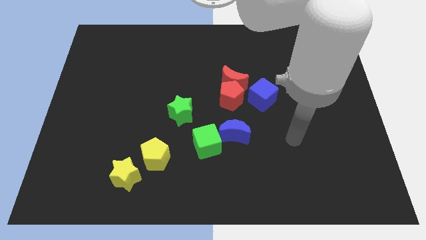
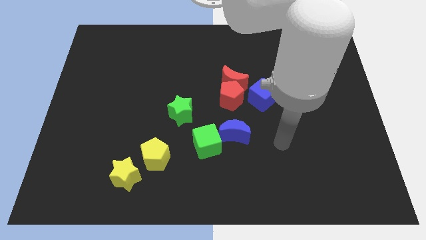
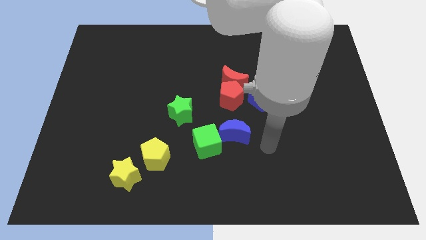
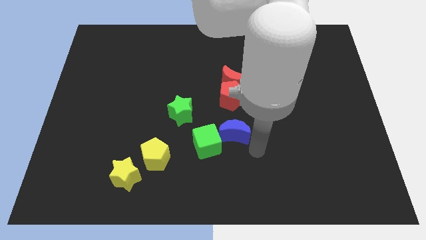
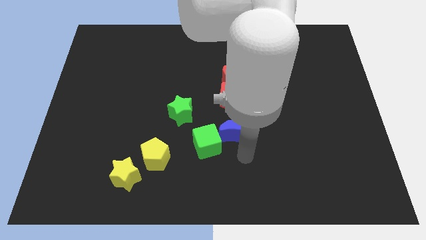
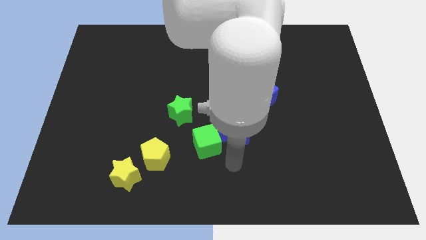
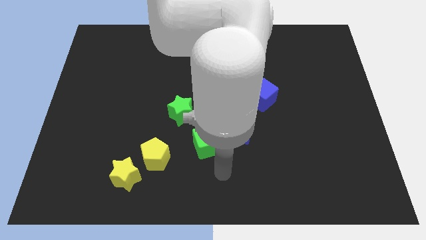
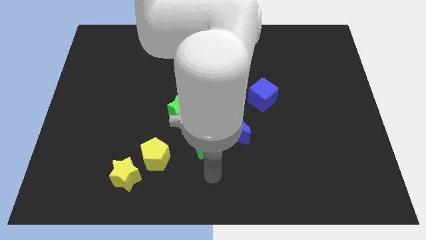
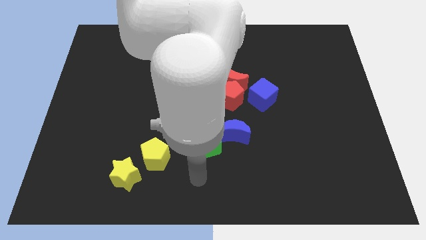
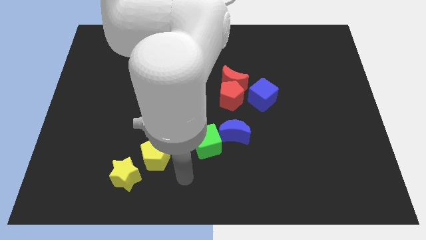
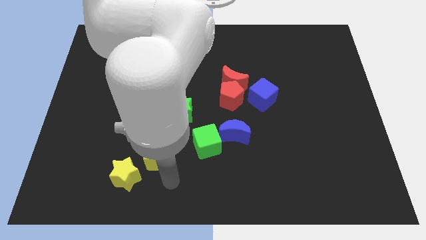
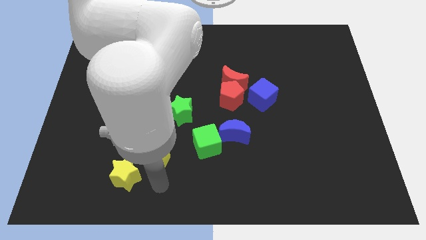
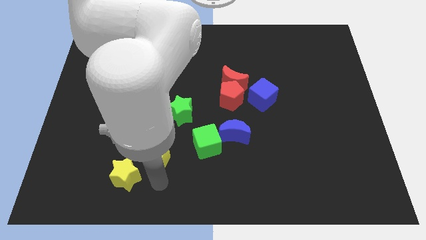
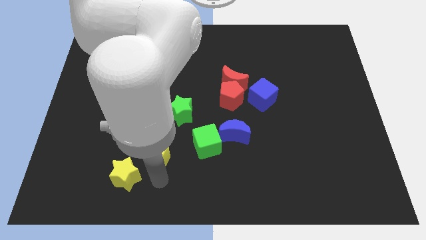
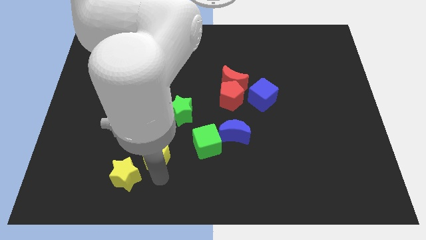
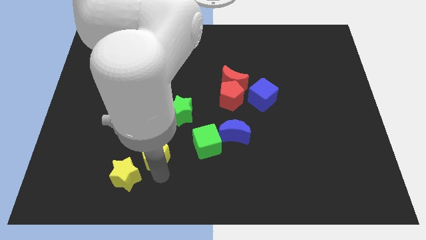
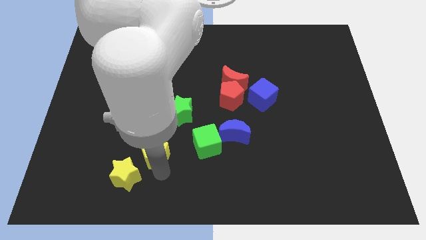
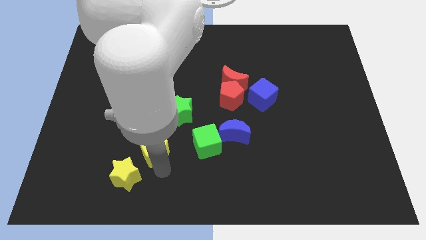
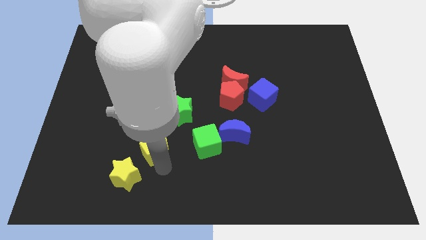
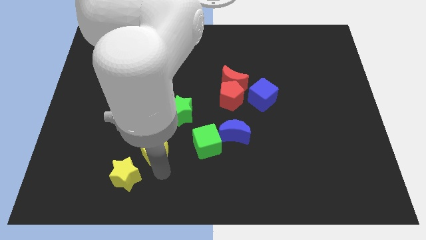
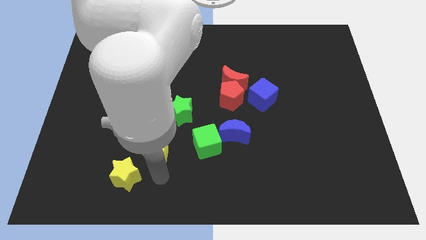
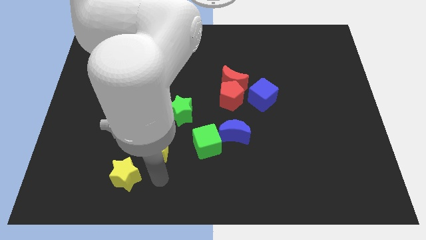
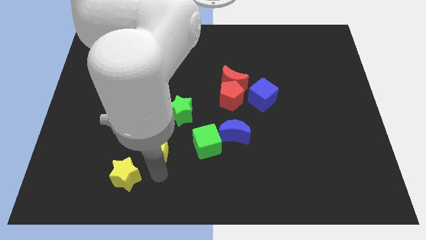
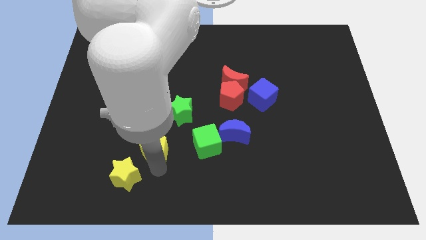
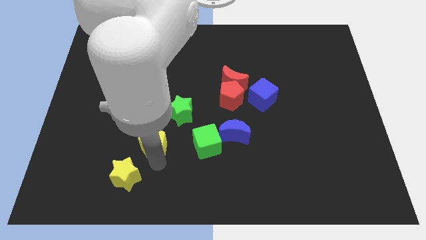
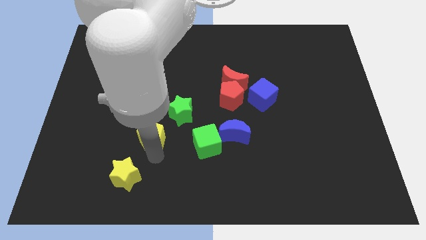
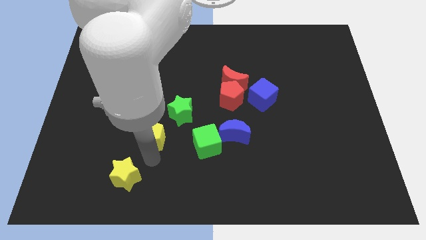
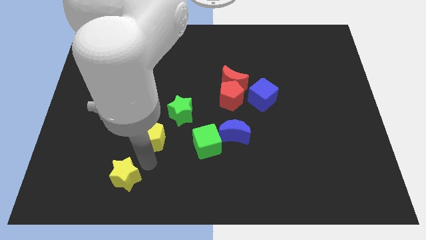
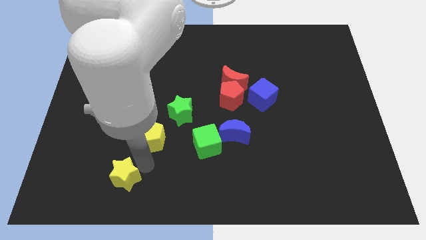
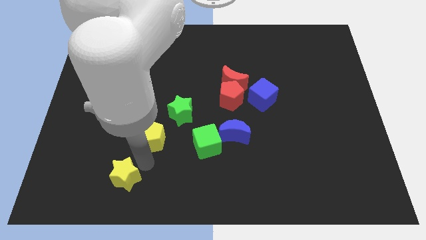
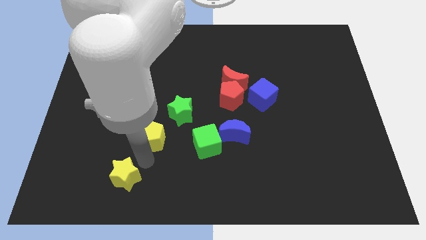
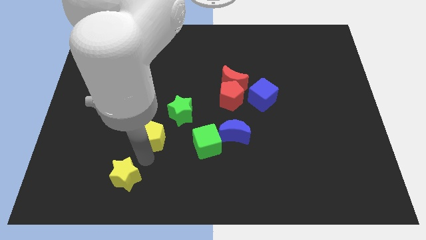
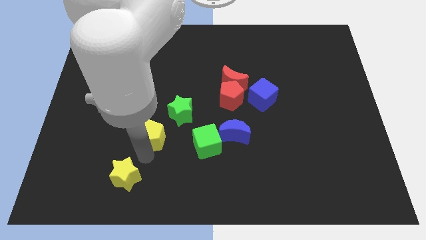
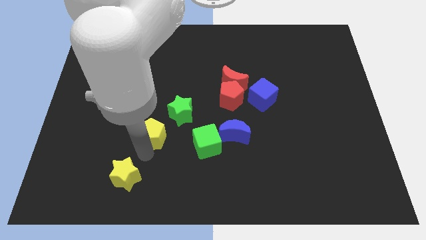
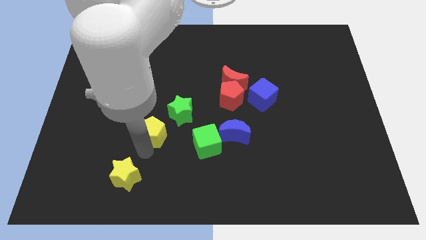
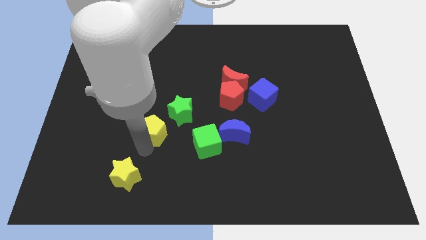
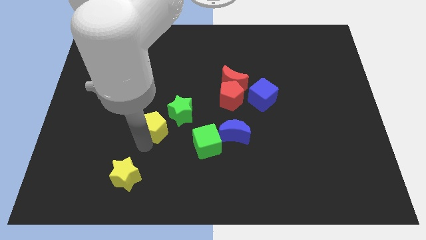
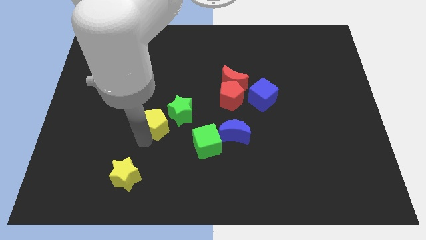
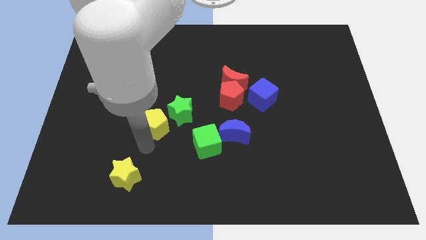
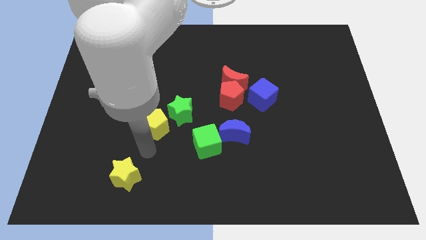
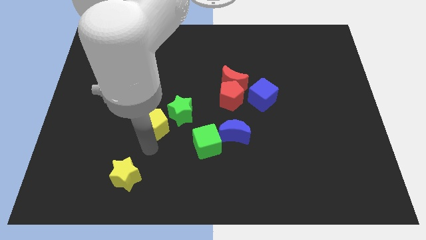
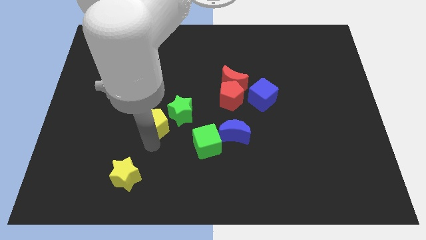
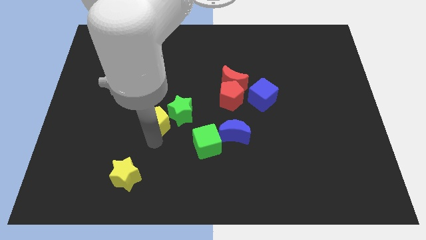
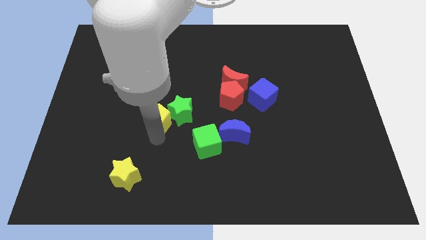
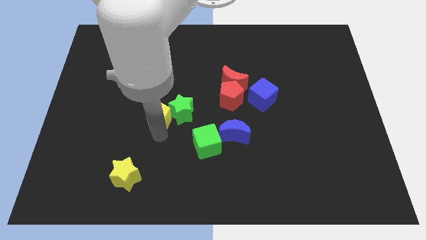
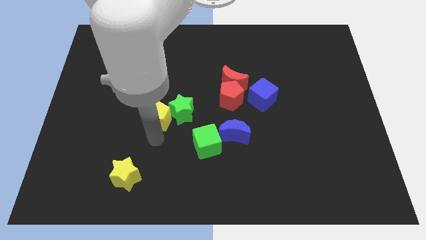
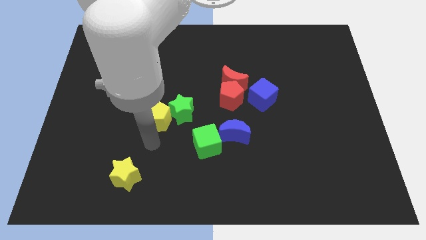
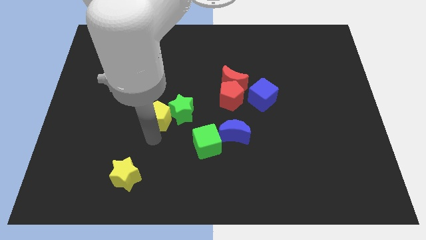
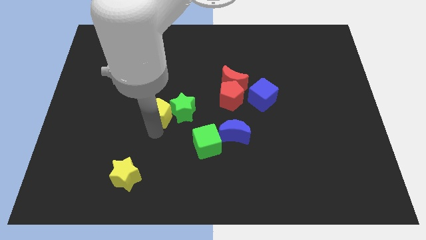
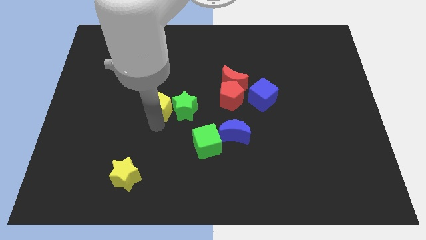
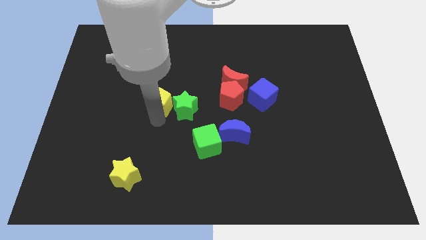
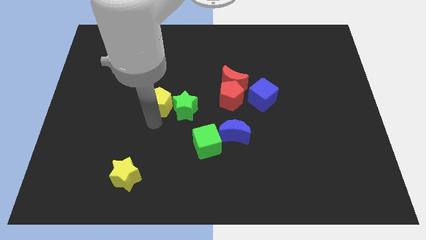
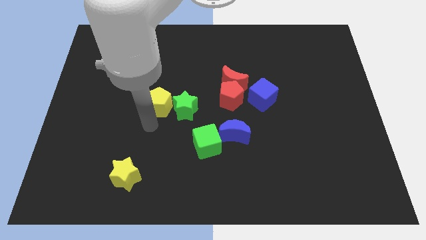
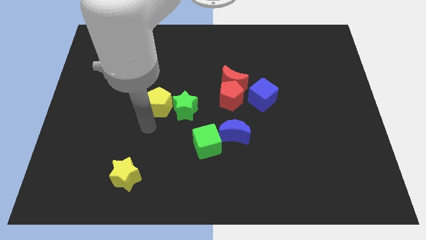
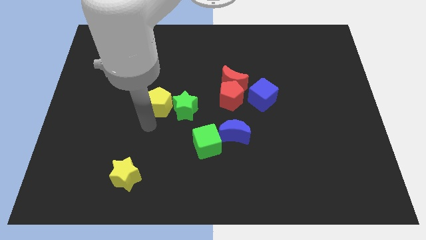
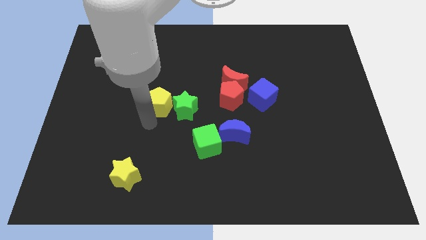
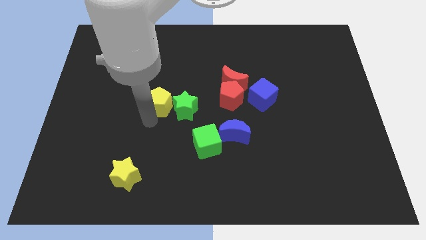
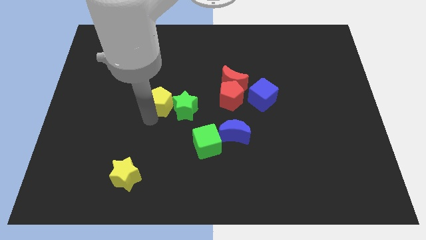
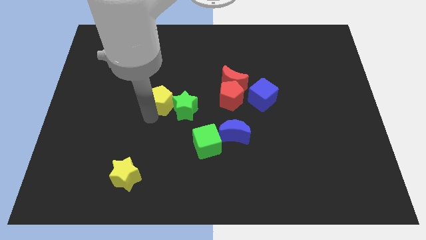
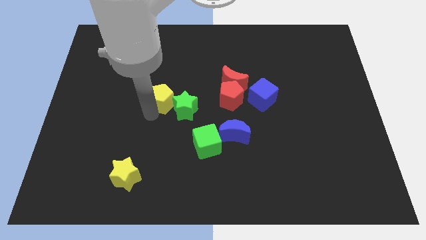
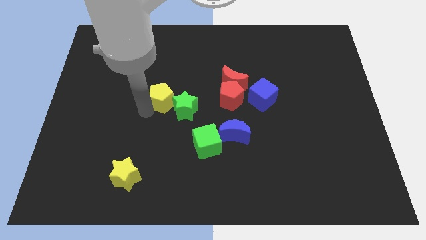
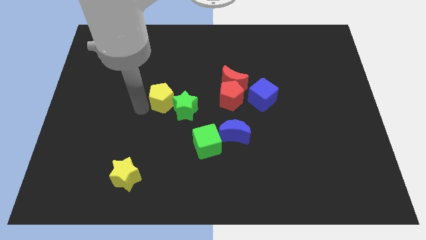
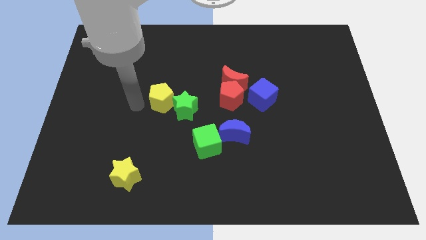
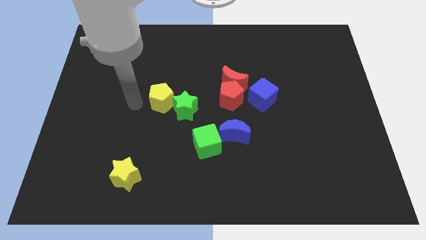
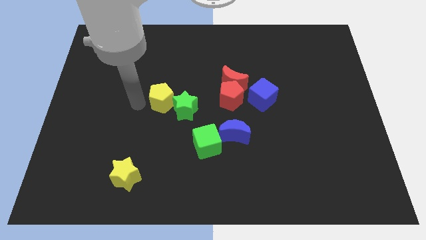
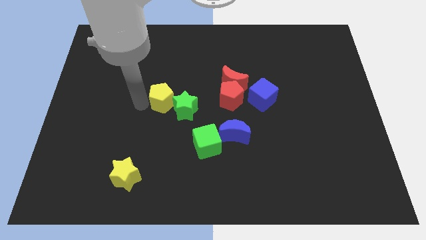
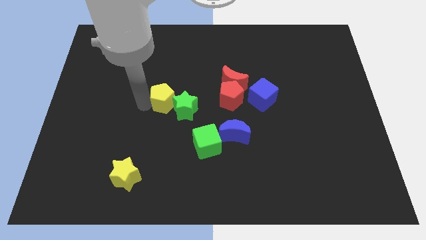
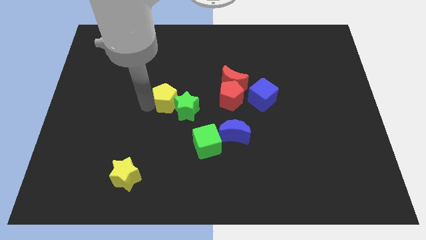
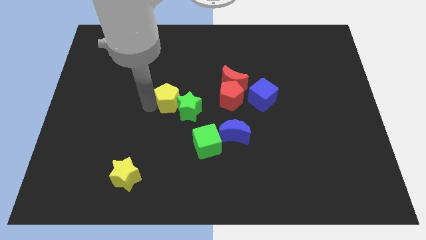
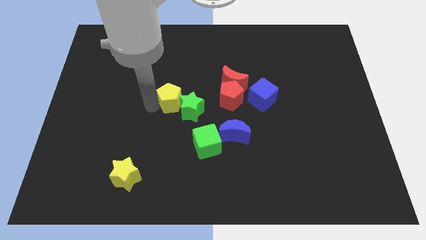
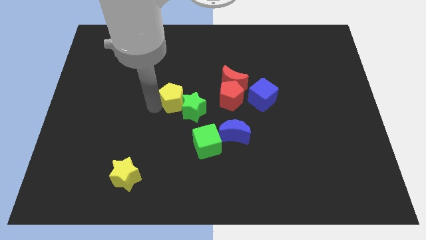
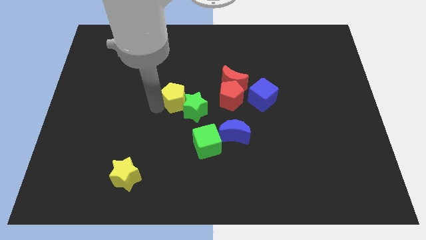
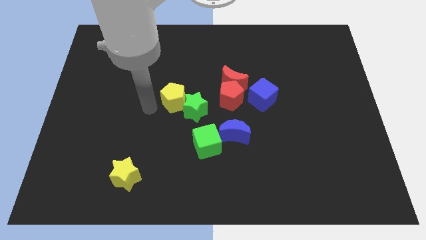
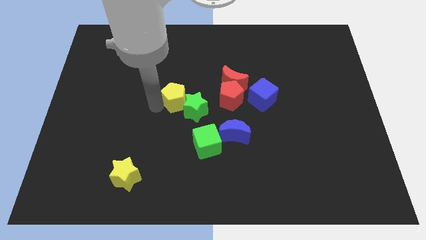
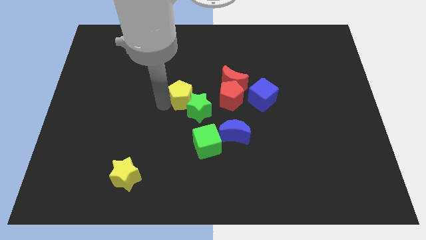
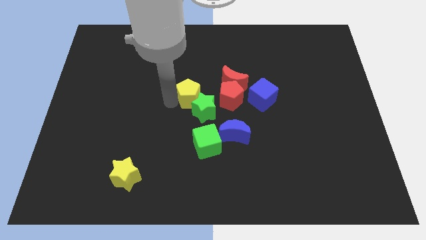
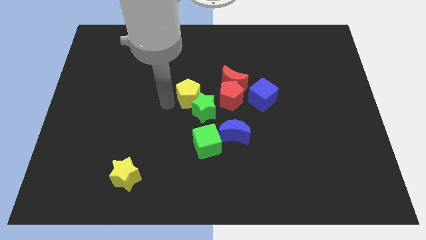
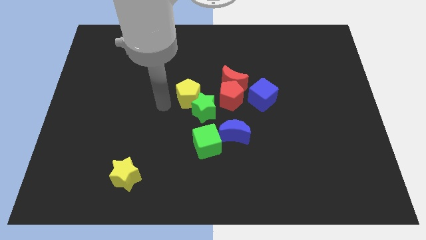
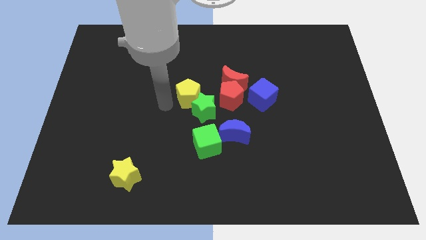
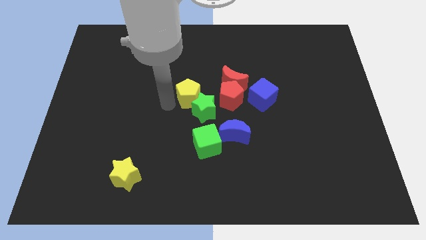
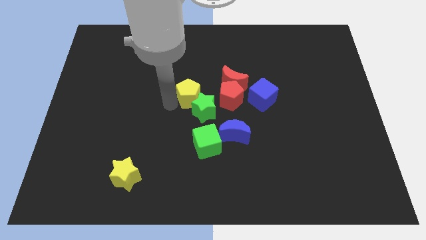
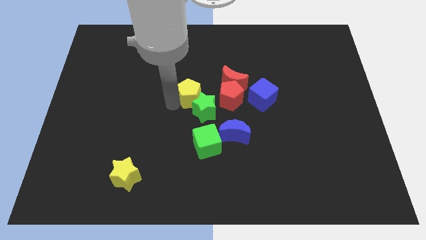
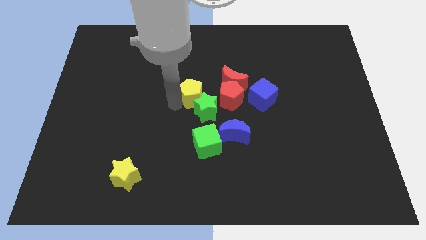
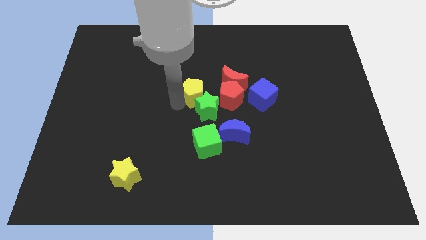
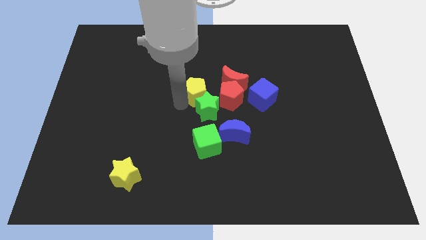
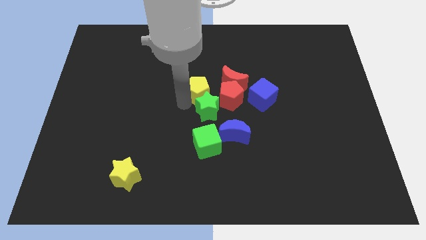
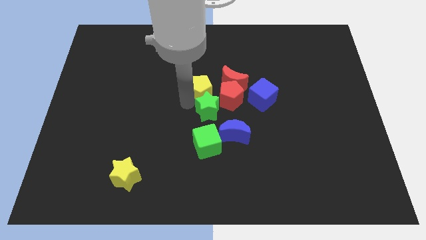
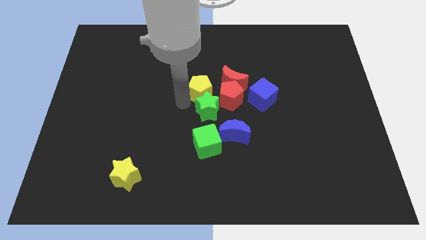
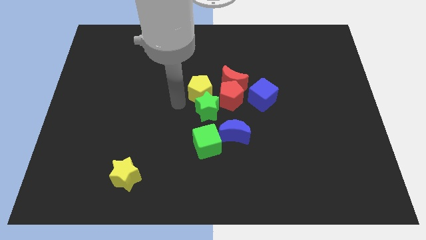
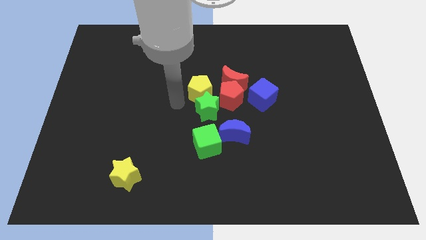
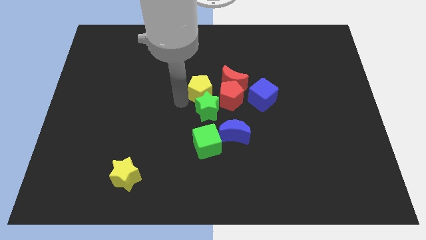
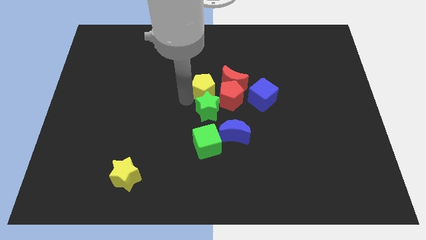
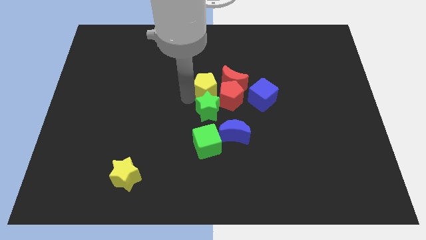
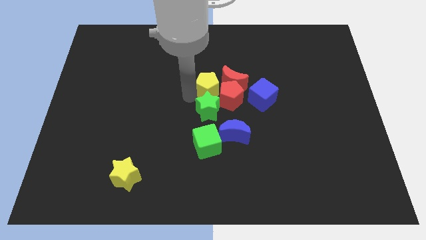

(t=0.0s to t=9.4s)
push the yellow pentagon close to the red moon
